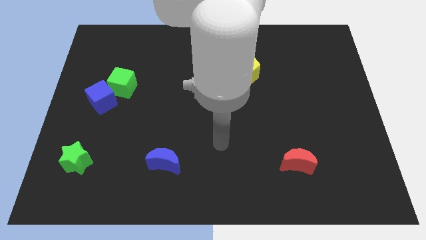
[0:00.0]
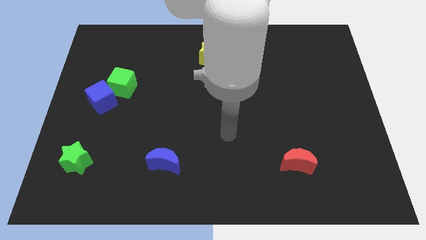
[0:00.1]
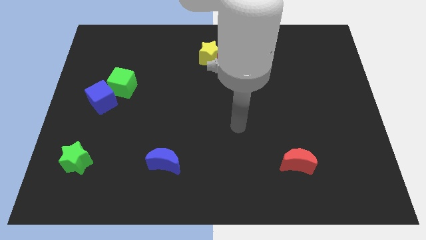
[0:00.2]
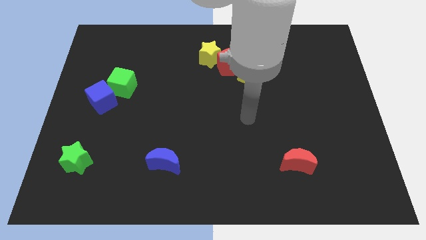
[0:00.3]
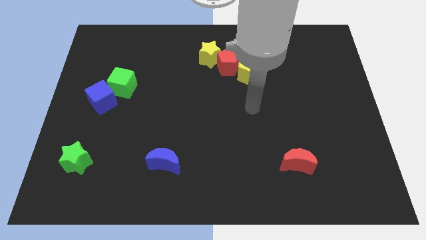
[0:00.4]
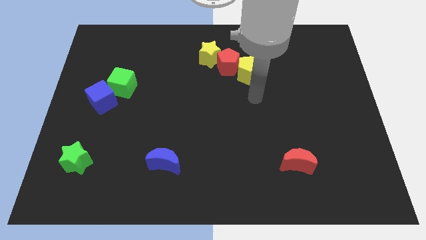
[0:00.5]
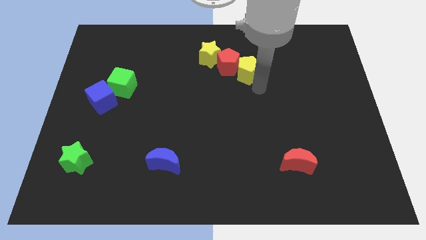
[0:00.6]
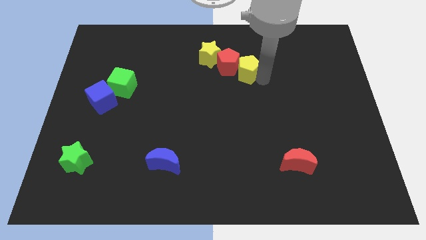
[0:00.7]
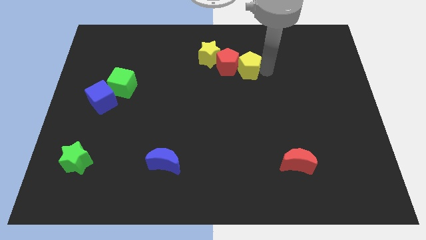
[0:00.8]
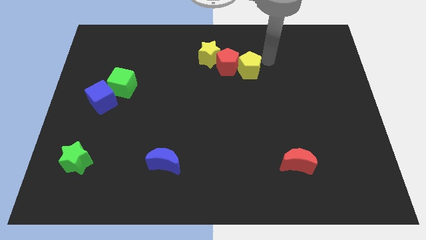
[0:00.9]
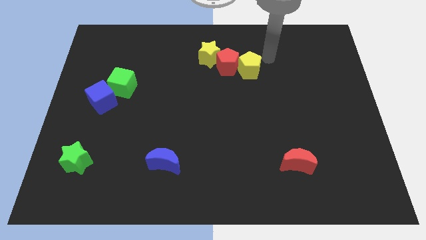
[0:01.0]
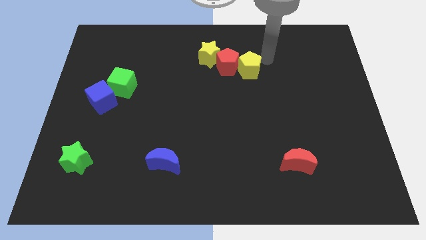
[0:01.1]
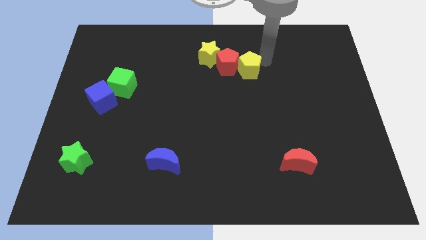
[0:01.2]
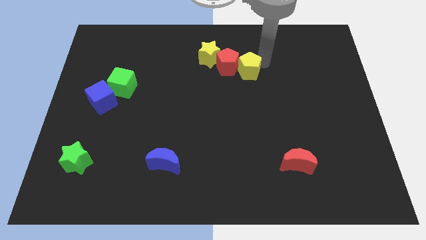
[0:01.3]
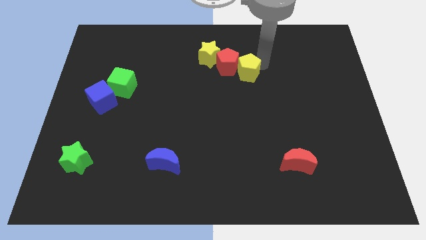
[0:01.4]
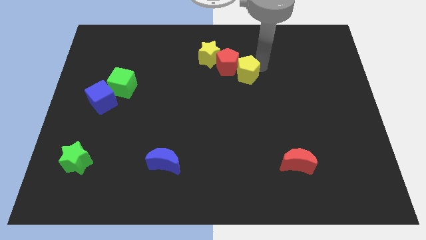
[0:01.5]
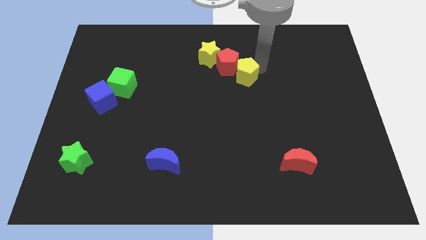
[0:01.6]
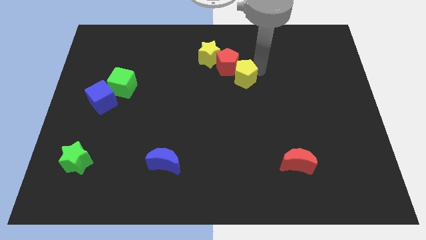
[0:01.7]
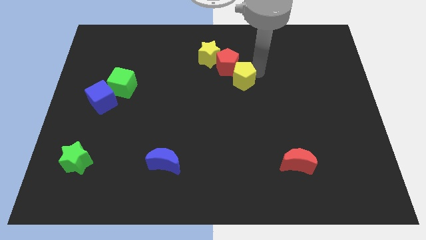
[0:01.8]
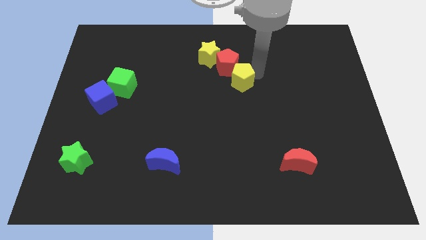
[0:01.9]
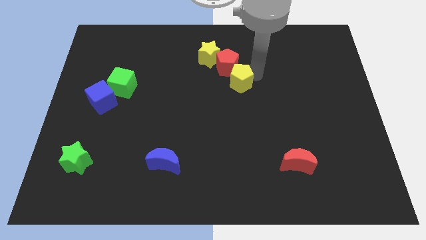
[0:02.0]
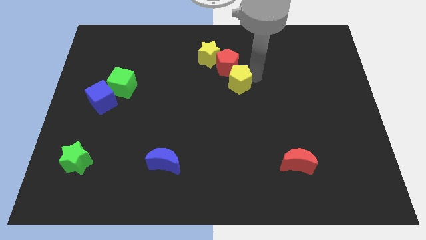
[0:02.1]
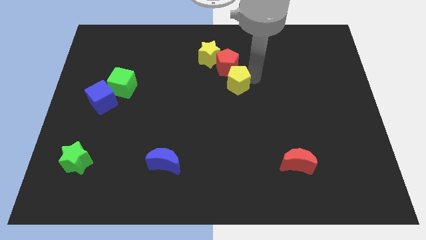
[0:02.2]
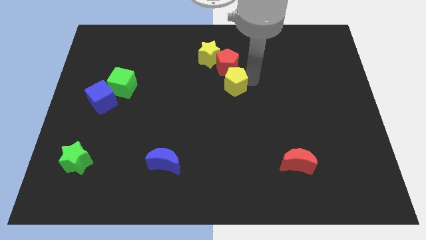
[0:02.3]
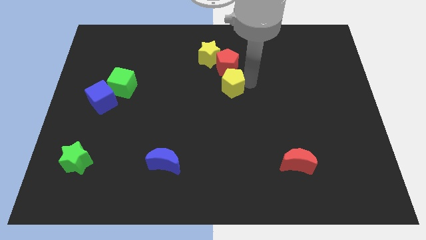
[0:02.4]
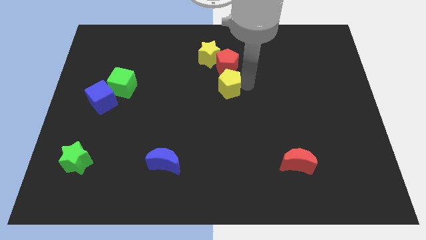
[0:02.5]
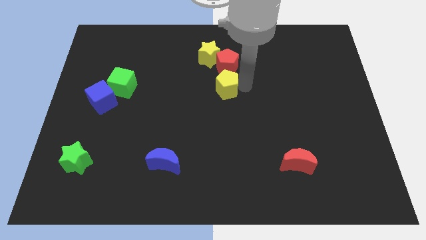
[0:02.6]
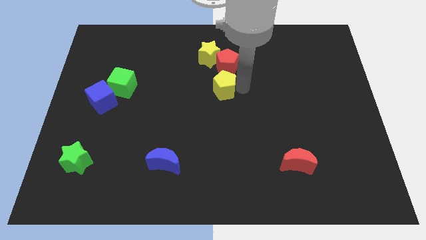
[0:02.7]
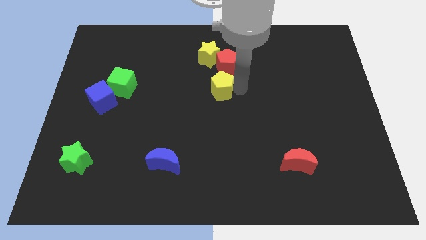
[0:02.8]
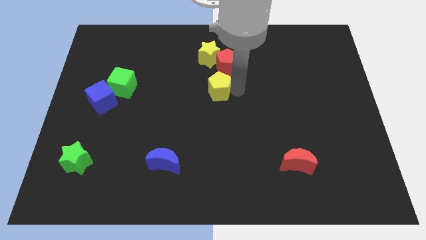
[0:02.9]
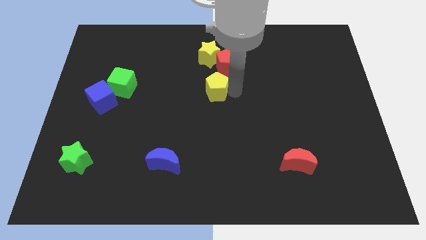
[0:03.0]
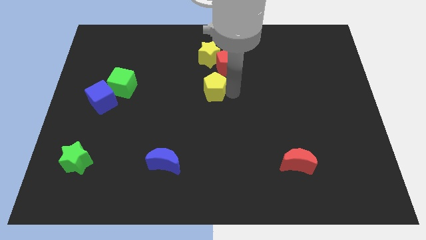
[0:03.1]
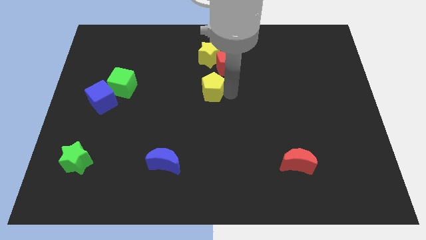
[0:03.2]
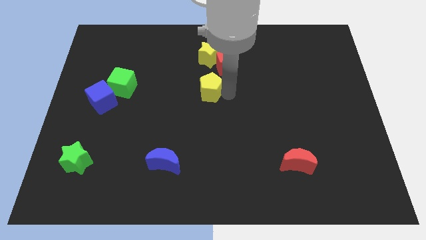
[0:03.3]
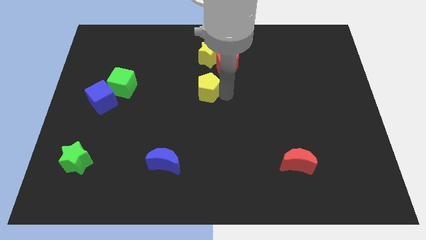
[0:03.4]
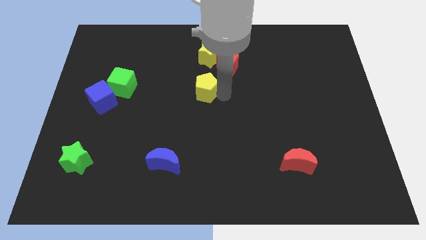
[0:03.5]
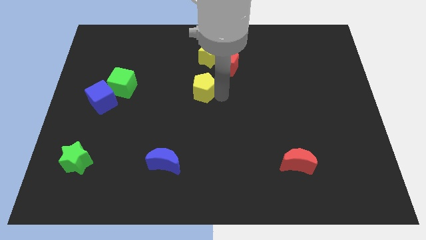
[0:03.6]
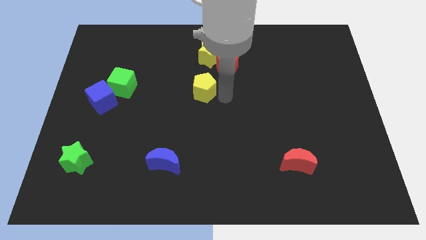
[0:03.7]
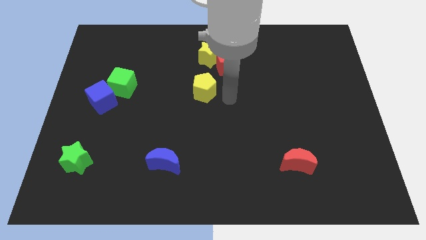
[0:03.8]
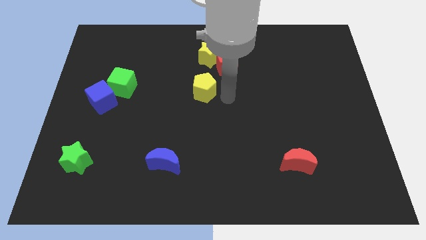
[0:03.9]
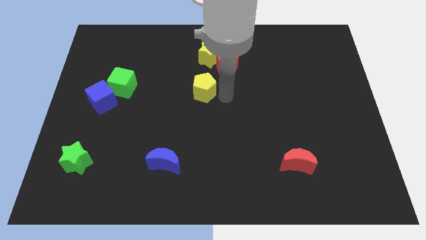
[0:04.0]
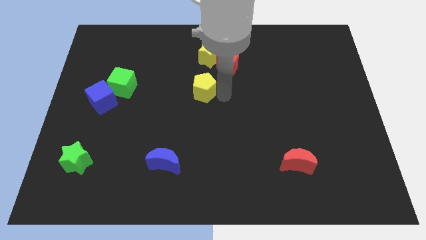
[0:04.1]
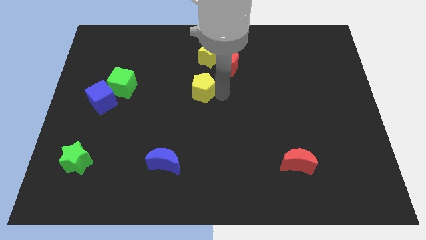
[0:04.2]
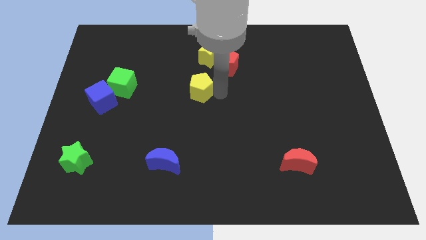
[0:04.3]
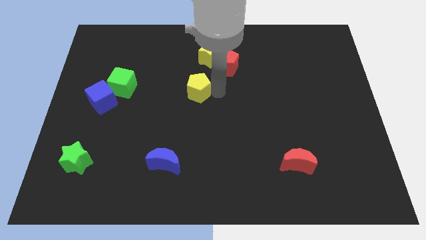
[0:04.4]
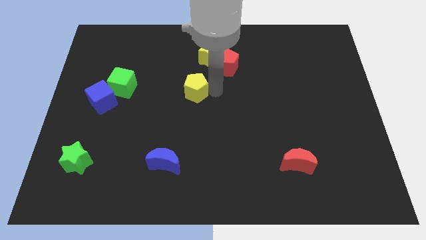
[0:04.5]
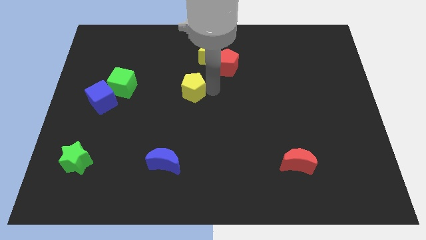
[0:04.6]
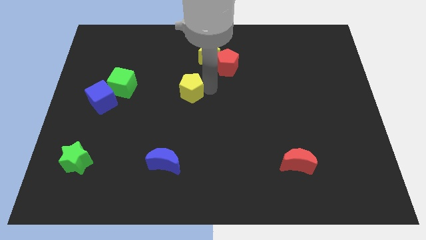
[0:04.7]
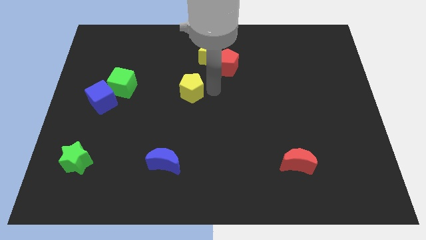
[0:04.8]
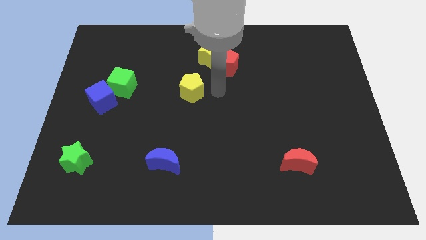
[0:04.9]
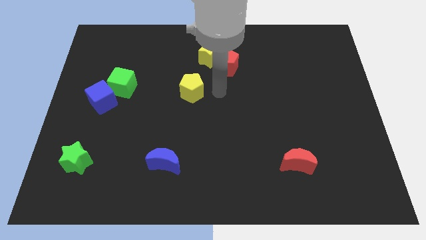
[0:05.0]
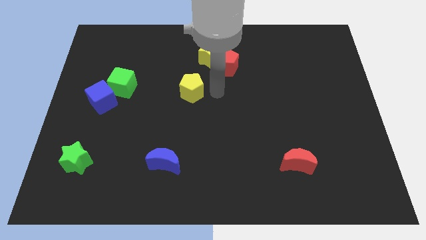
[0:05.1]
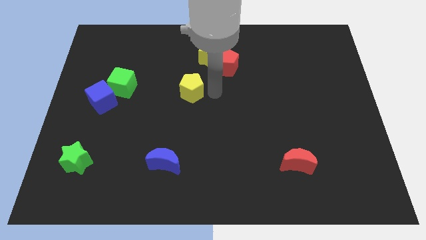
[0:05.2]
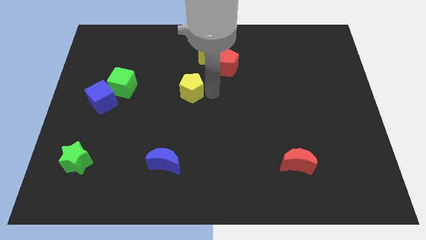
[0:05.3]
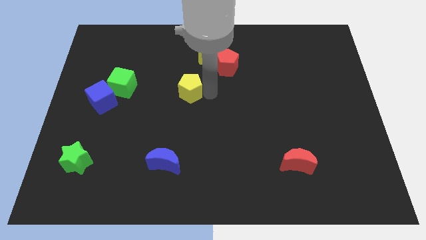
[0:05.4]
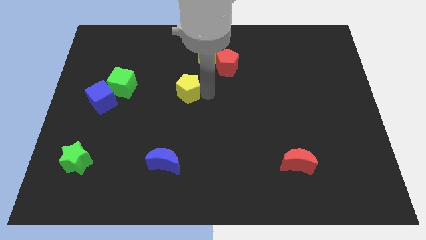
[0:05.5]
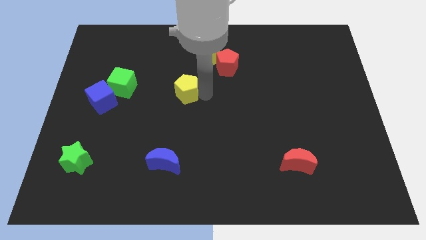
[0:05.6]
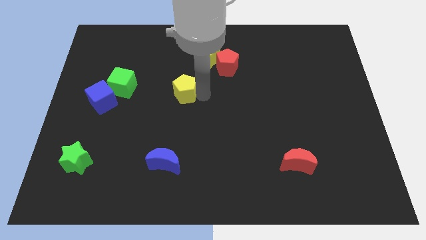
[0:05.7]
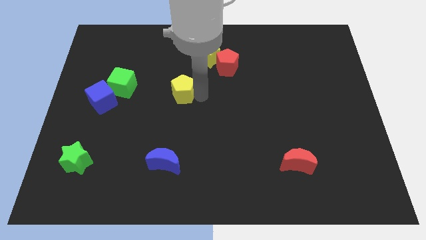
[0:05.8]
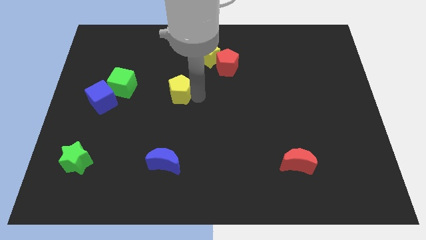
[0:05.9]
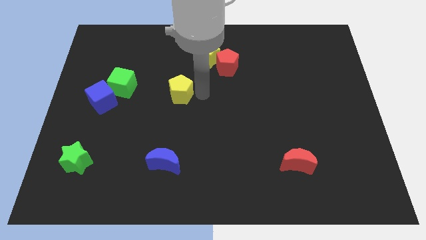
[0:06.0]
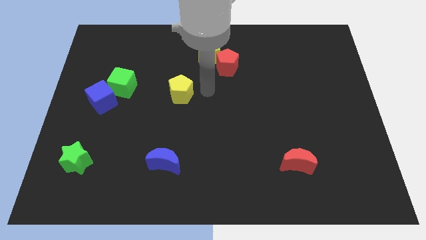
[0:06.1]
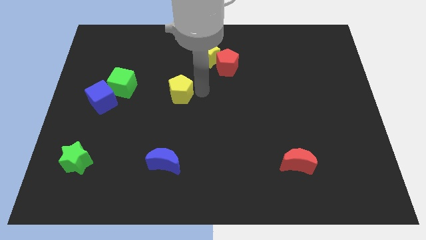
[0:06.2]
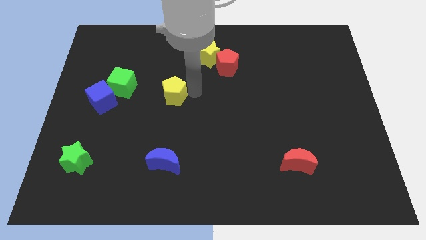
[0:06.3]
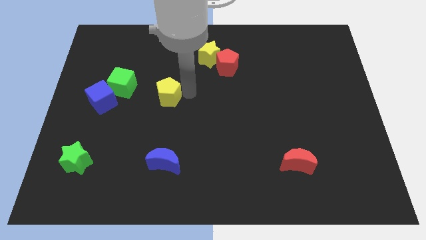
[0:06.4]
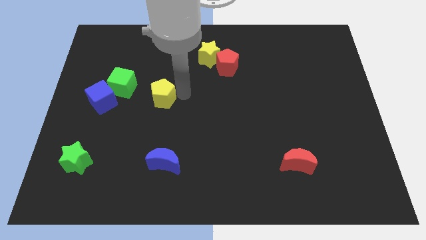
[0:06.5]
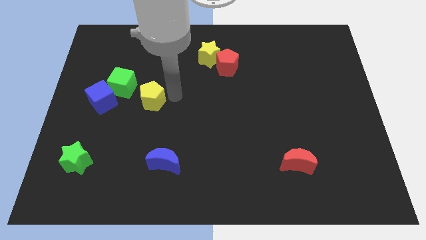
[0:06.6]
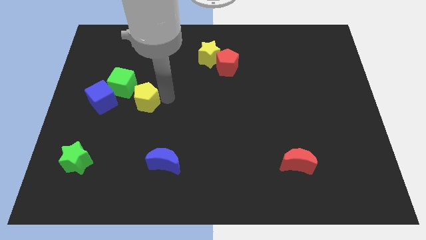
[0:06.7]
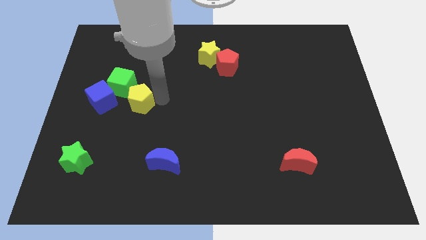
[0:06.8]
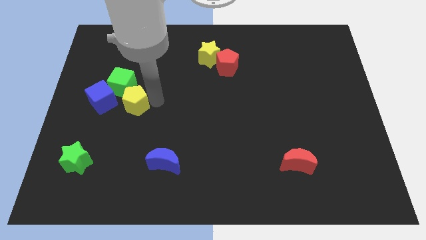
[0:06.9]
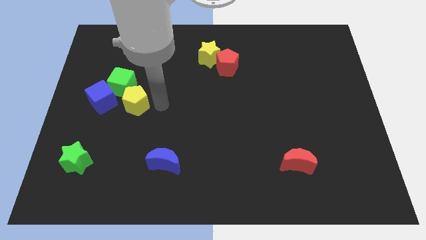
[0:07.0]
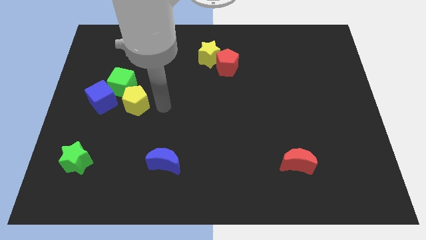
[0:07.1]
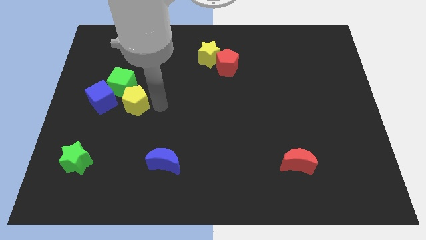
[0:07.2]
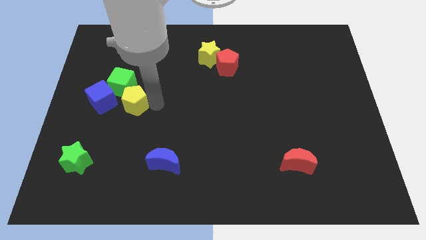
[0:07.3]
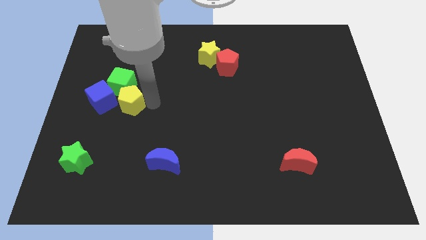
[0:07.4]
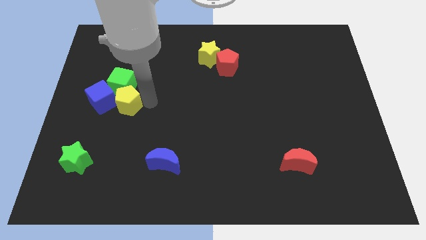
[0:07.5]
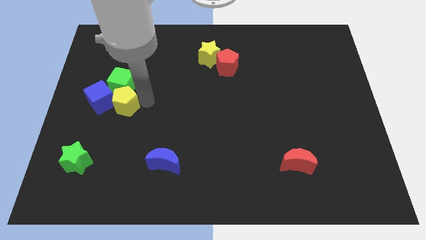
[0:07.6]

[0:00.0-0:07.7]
push the yellow pentagon next to the blue cube
